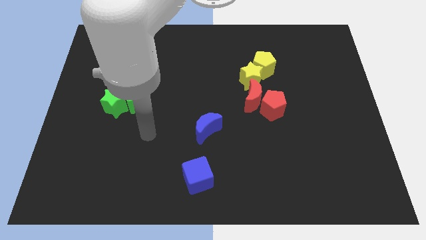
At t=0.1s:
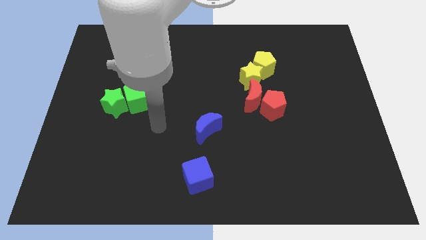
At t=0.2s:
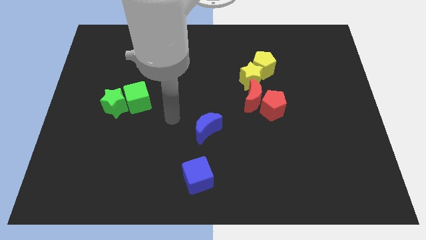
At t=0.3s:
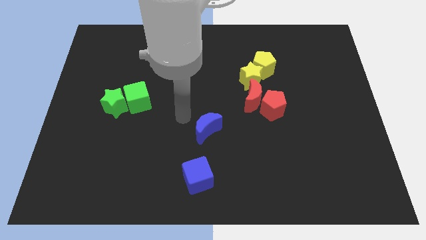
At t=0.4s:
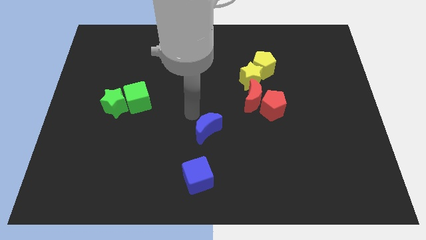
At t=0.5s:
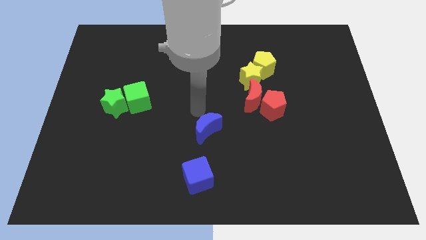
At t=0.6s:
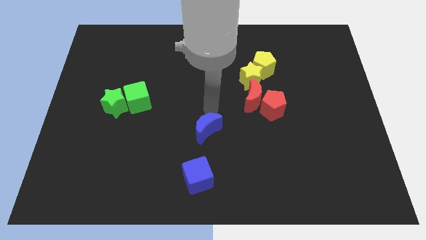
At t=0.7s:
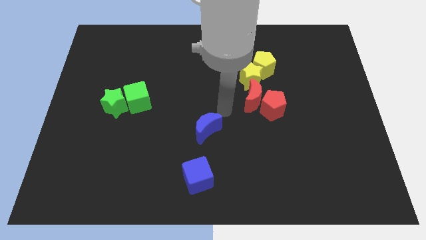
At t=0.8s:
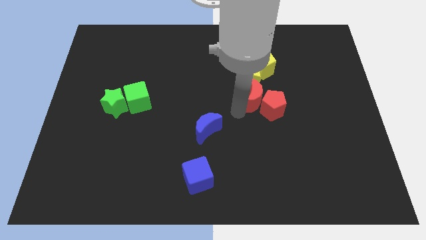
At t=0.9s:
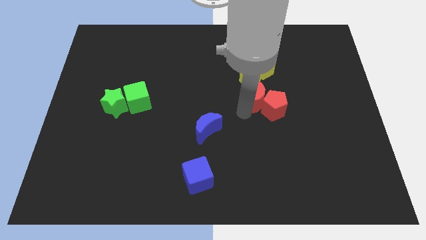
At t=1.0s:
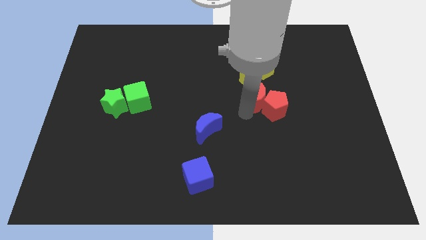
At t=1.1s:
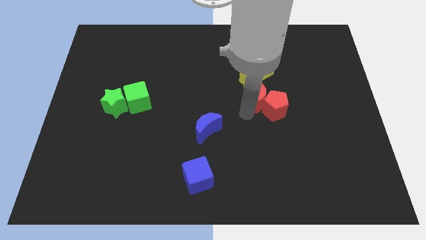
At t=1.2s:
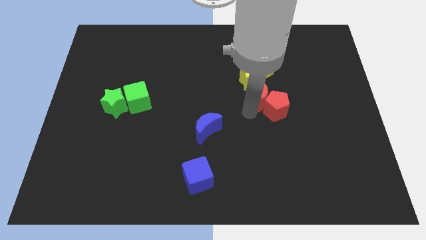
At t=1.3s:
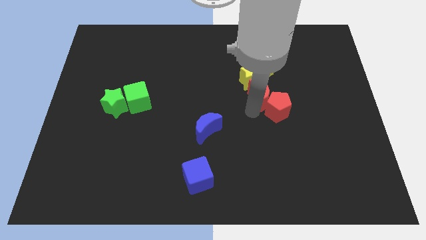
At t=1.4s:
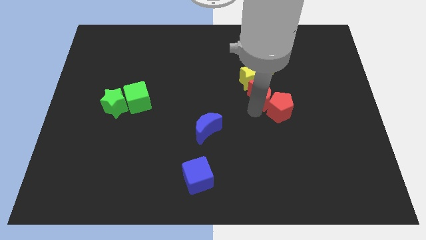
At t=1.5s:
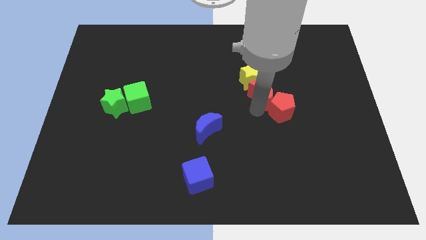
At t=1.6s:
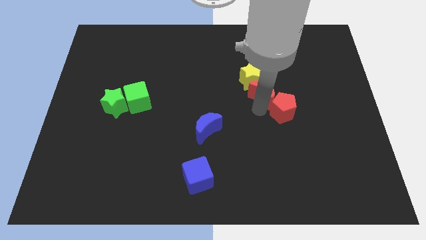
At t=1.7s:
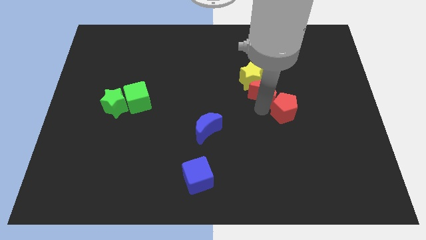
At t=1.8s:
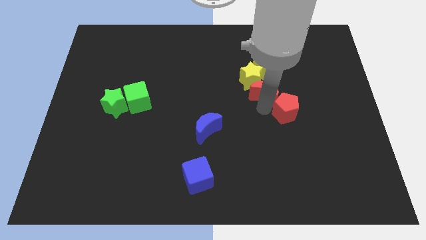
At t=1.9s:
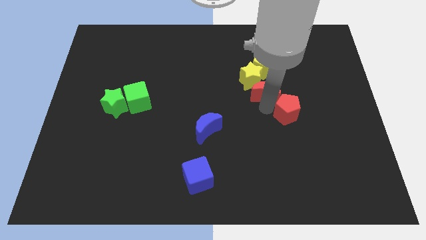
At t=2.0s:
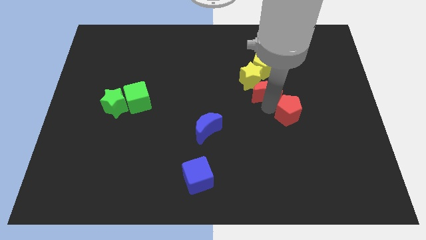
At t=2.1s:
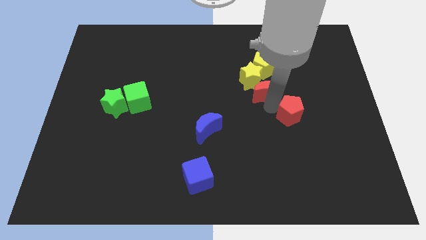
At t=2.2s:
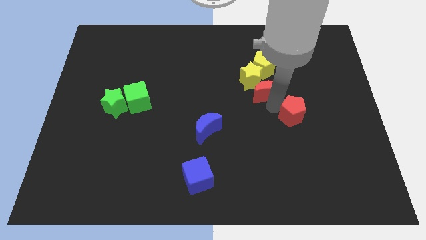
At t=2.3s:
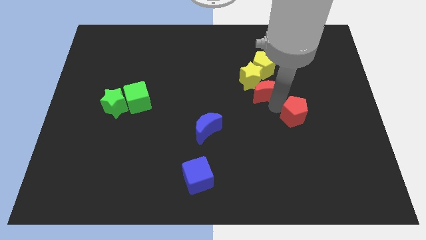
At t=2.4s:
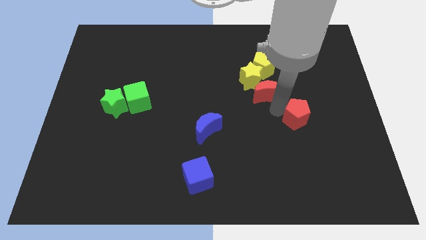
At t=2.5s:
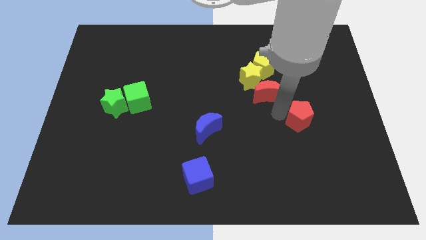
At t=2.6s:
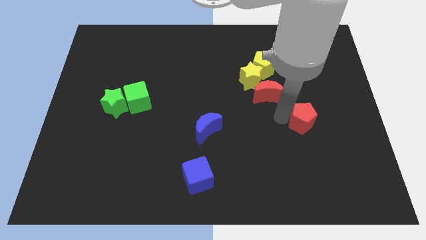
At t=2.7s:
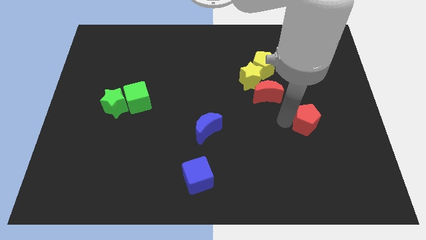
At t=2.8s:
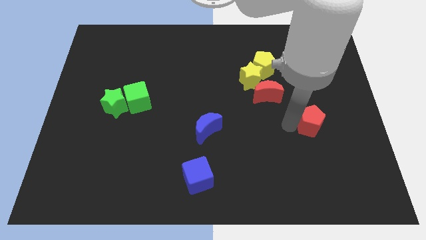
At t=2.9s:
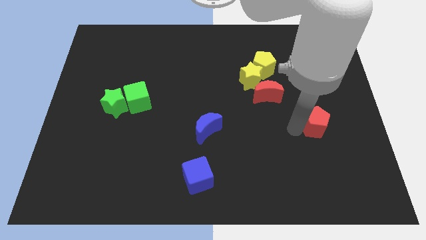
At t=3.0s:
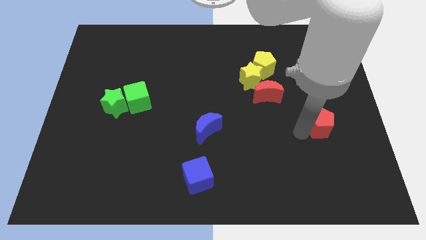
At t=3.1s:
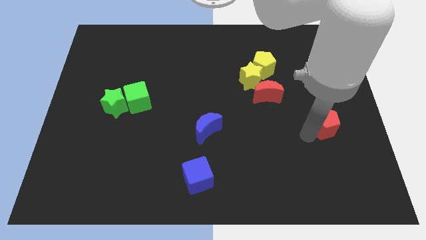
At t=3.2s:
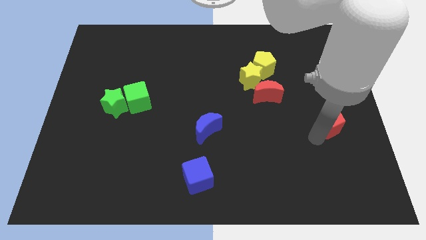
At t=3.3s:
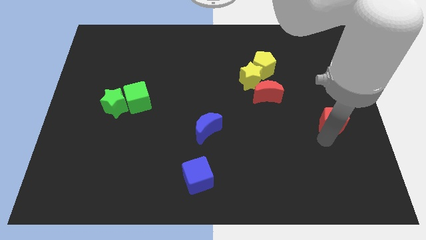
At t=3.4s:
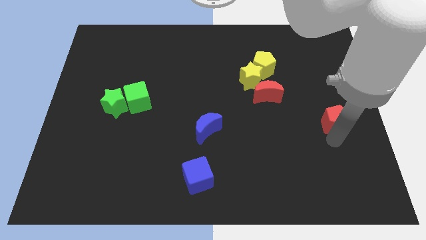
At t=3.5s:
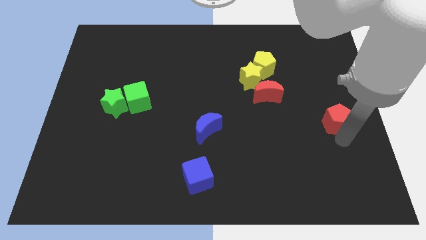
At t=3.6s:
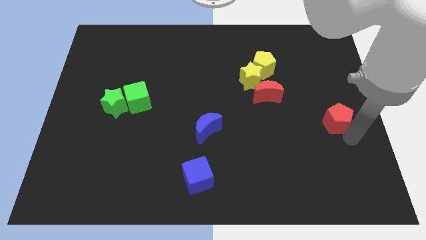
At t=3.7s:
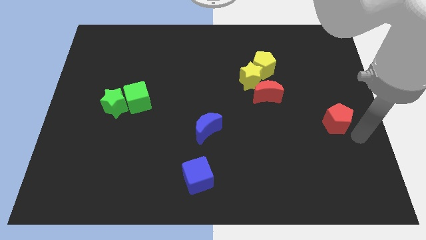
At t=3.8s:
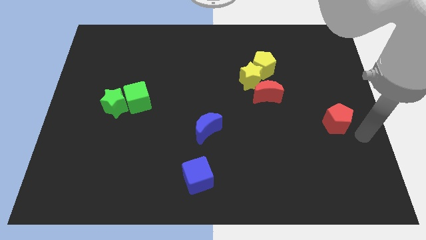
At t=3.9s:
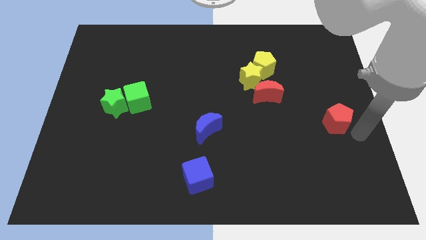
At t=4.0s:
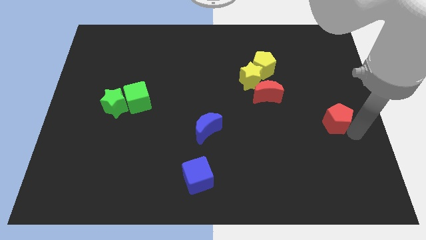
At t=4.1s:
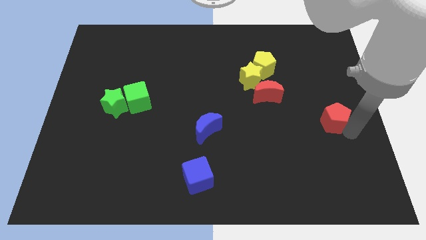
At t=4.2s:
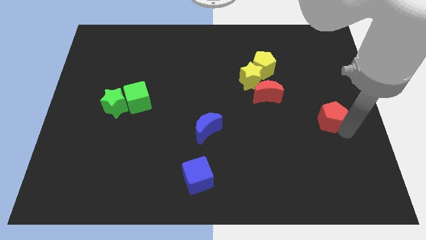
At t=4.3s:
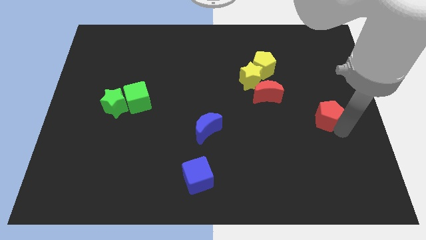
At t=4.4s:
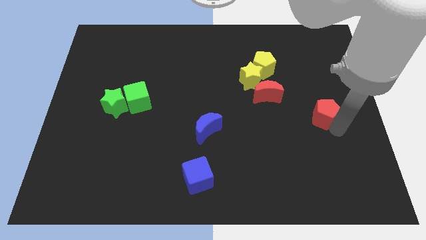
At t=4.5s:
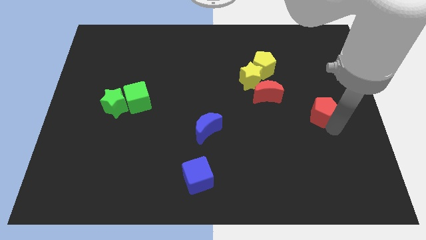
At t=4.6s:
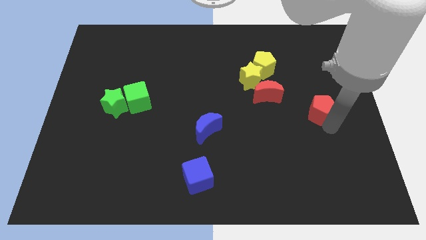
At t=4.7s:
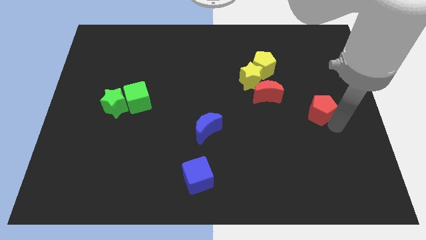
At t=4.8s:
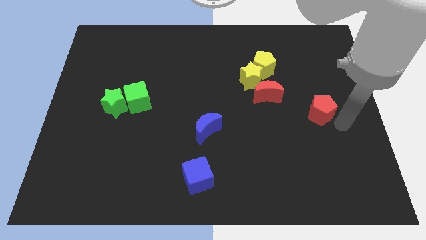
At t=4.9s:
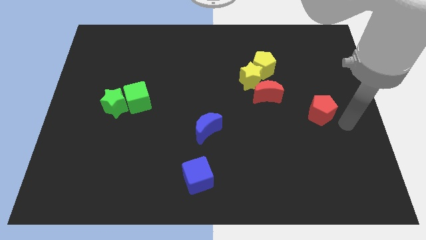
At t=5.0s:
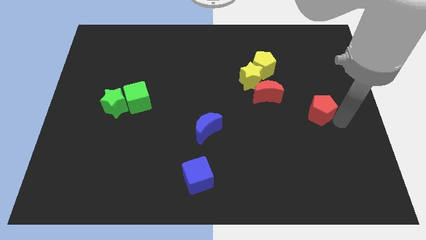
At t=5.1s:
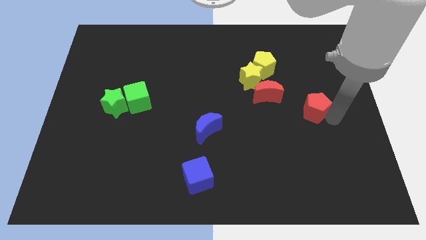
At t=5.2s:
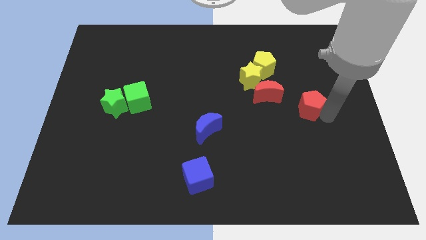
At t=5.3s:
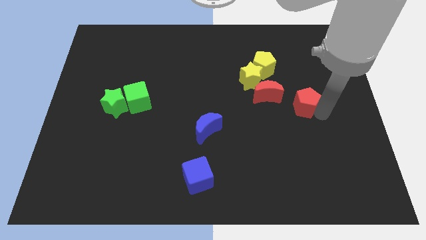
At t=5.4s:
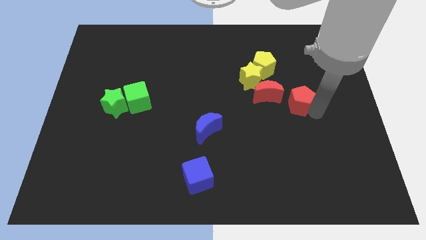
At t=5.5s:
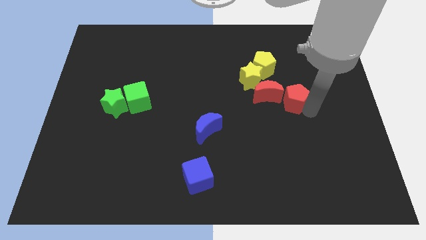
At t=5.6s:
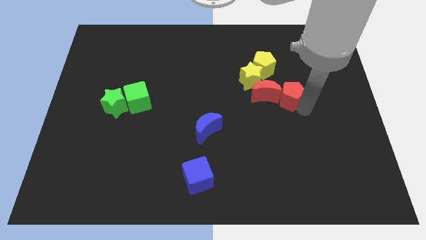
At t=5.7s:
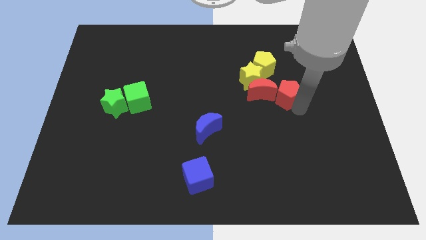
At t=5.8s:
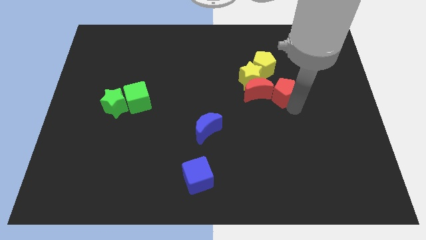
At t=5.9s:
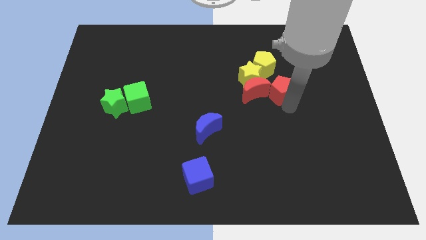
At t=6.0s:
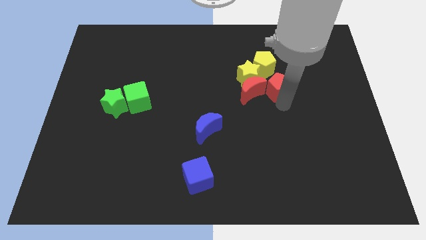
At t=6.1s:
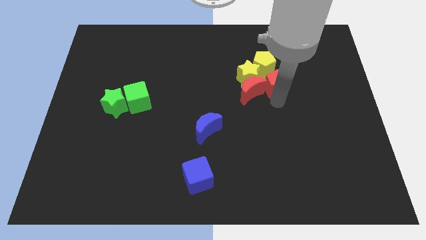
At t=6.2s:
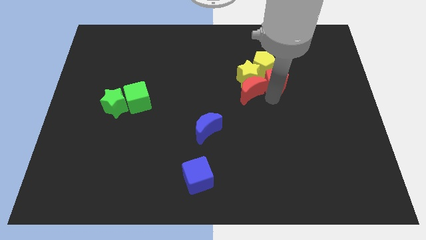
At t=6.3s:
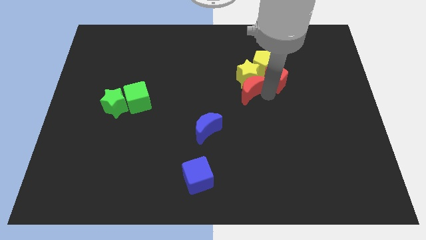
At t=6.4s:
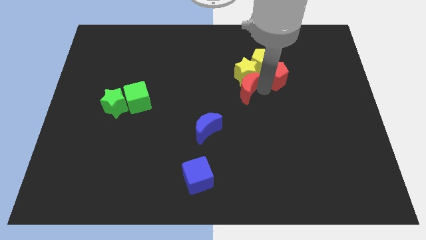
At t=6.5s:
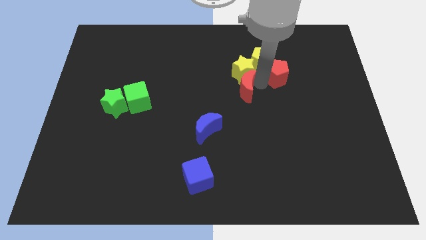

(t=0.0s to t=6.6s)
slightly push the red pentagon diagonally up and to the right

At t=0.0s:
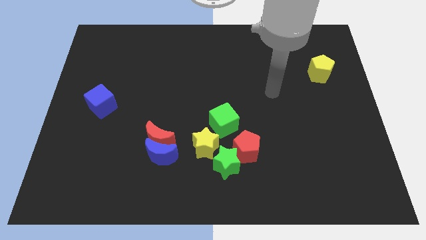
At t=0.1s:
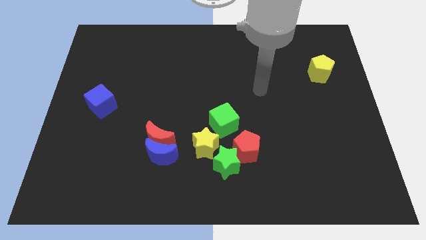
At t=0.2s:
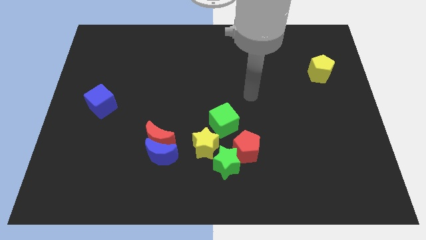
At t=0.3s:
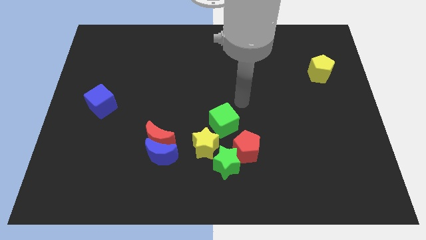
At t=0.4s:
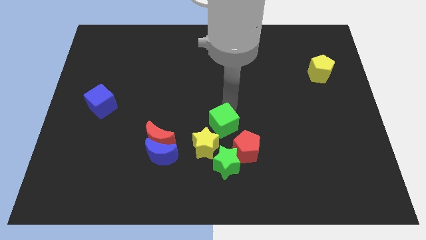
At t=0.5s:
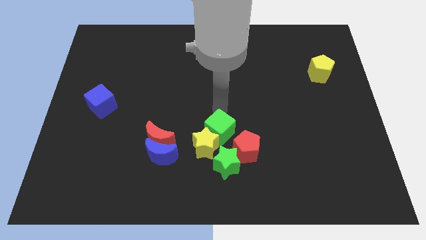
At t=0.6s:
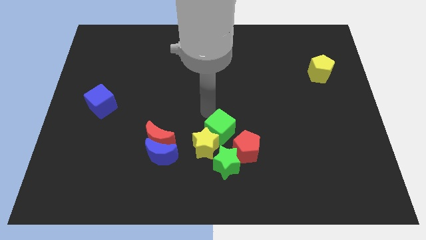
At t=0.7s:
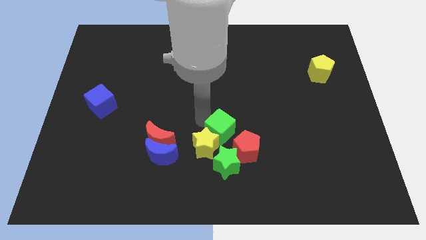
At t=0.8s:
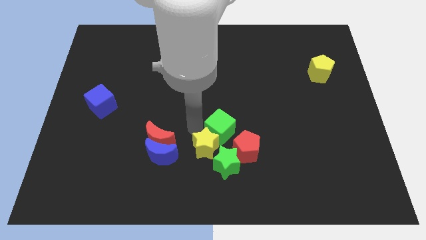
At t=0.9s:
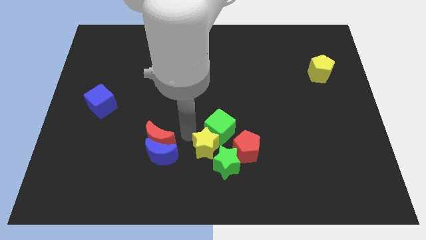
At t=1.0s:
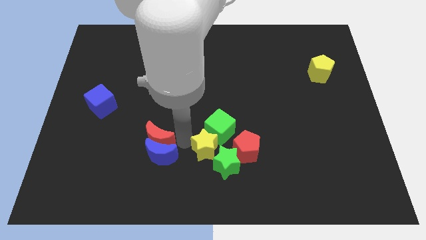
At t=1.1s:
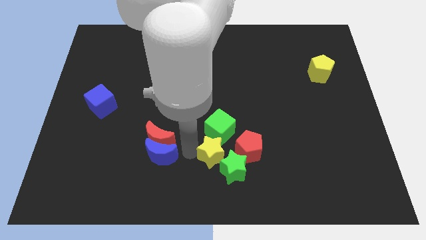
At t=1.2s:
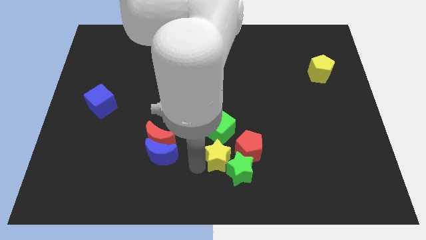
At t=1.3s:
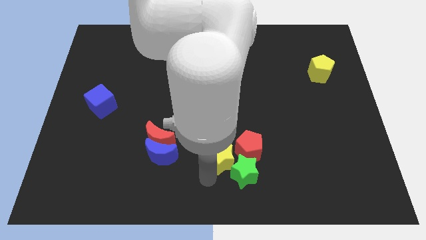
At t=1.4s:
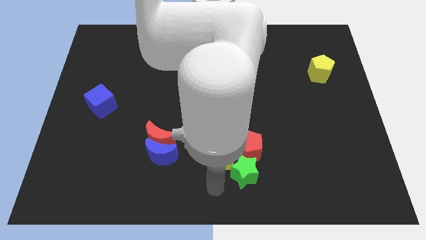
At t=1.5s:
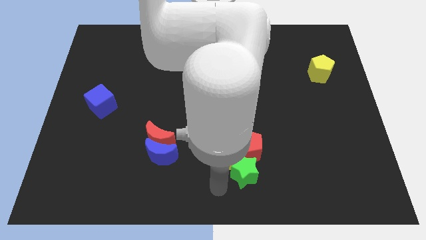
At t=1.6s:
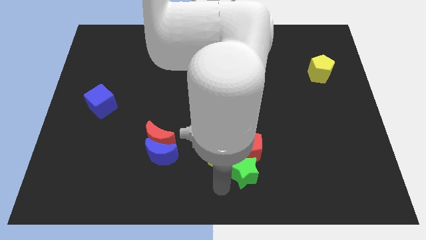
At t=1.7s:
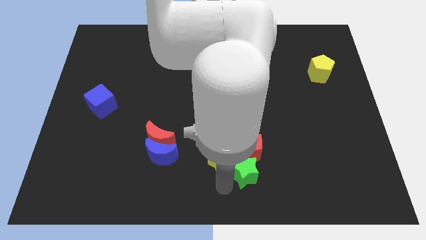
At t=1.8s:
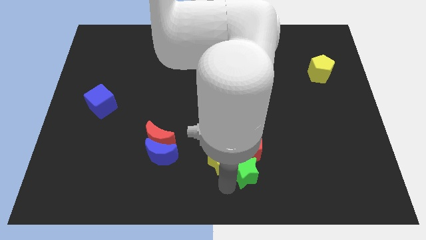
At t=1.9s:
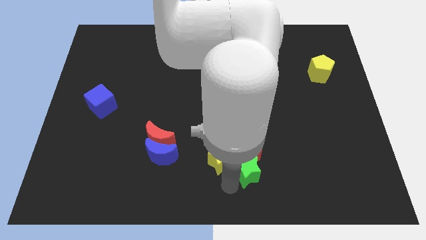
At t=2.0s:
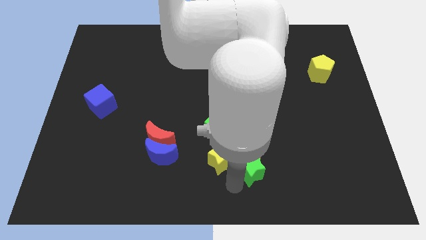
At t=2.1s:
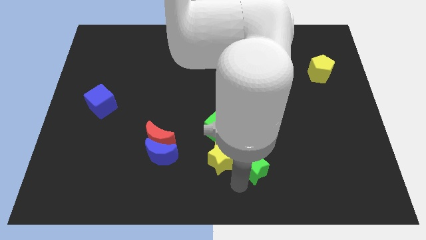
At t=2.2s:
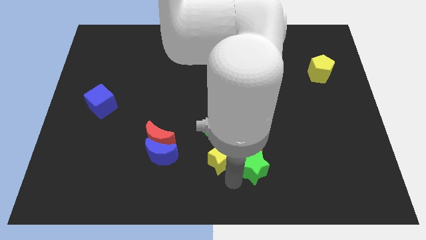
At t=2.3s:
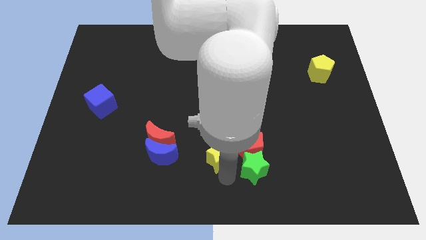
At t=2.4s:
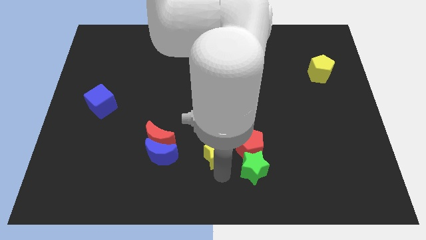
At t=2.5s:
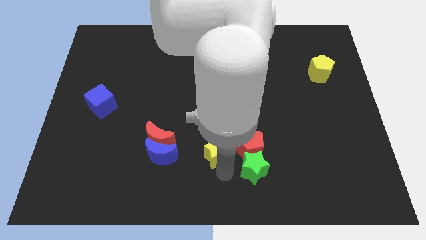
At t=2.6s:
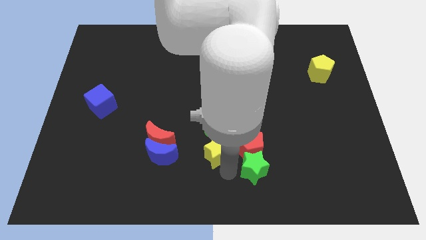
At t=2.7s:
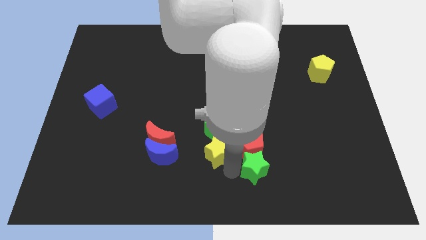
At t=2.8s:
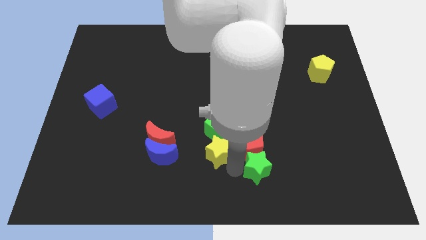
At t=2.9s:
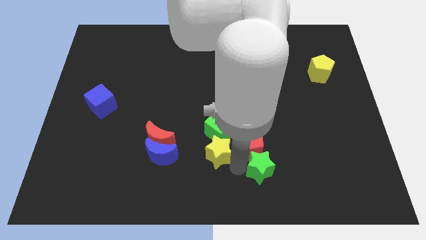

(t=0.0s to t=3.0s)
move the green star right somewhat
